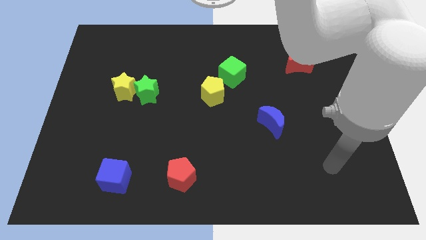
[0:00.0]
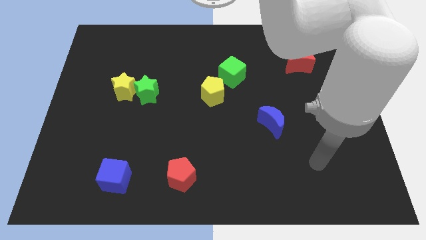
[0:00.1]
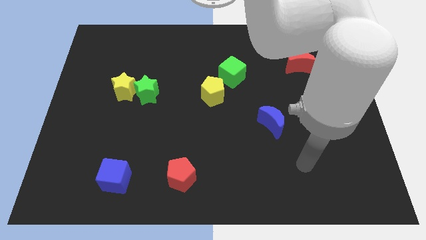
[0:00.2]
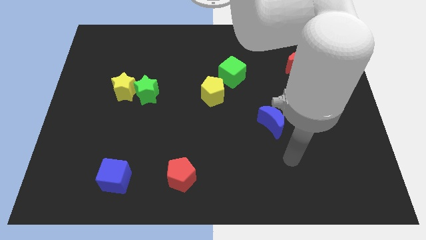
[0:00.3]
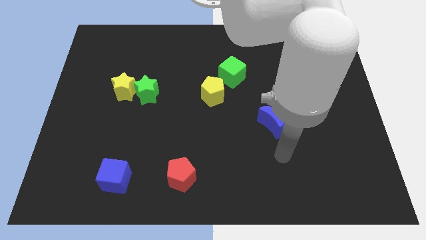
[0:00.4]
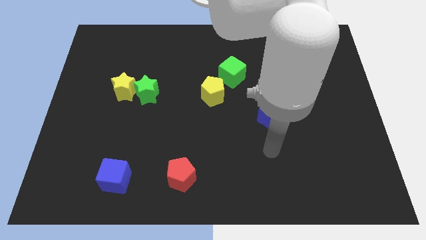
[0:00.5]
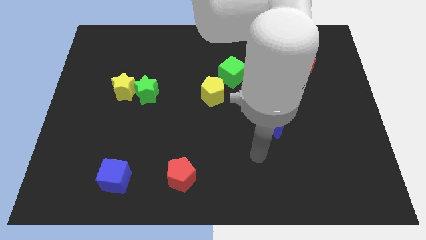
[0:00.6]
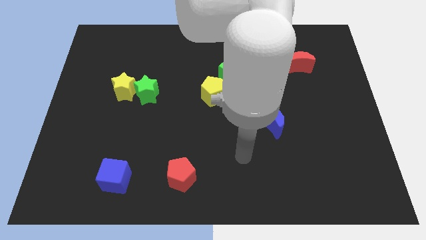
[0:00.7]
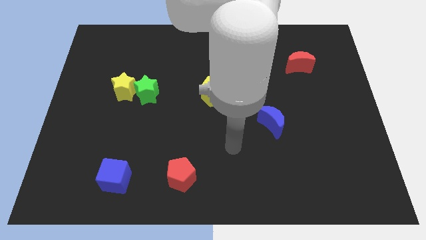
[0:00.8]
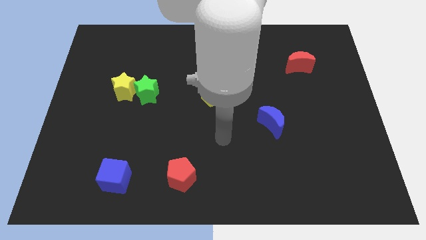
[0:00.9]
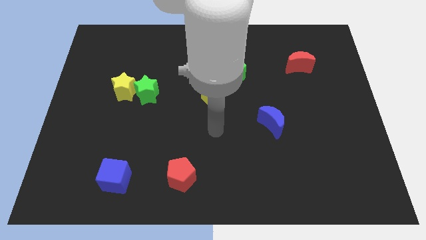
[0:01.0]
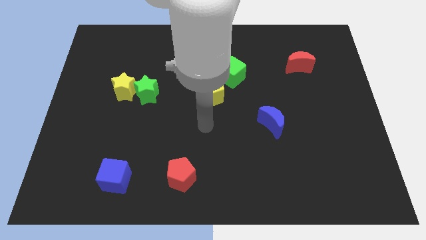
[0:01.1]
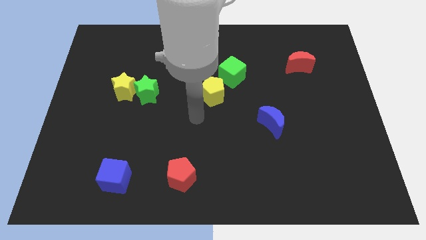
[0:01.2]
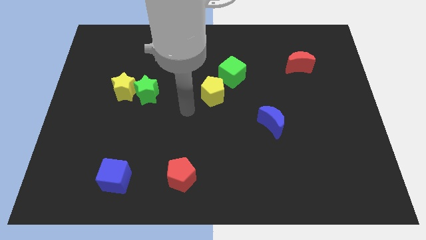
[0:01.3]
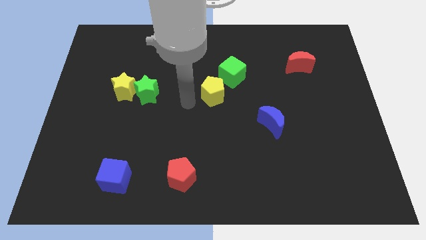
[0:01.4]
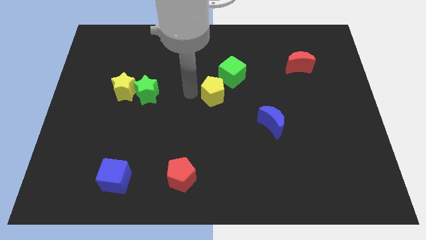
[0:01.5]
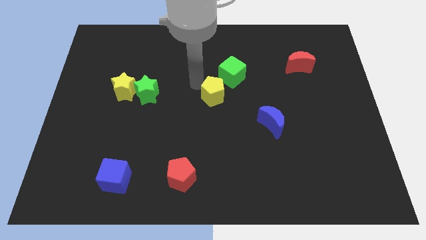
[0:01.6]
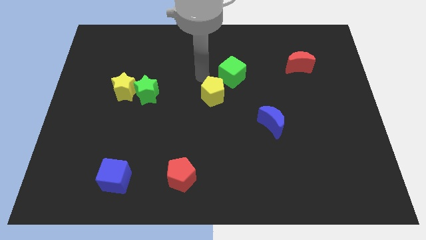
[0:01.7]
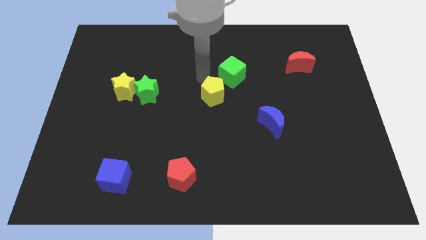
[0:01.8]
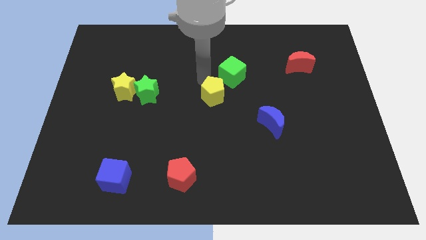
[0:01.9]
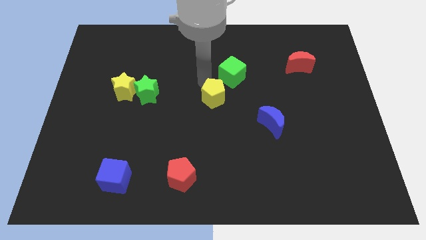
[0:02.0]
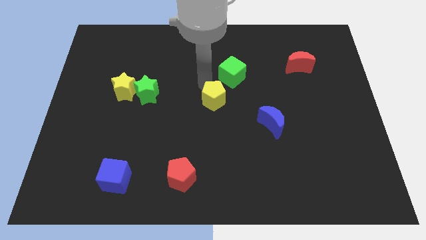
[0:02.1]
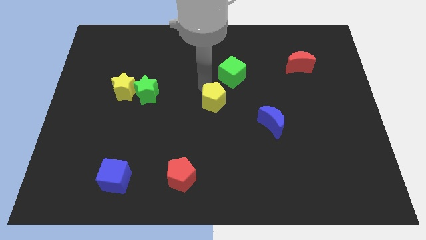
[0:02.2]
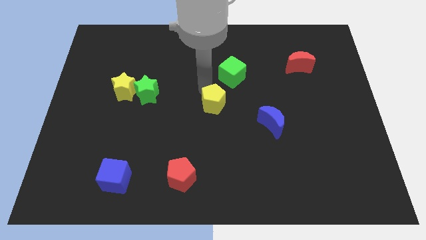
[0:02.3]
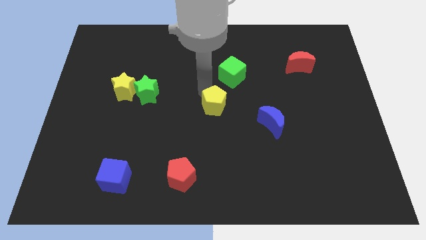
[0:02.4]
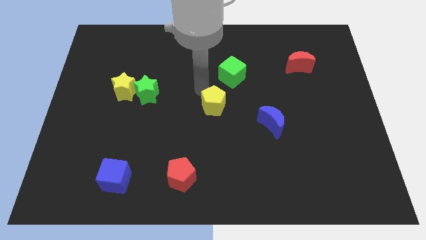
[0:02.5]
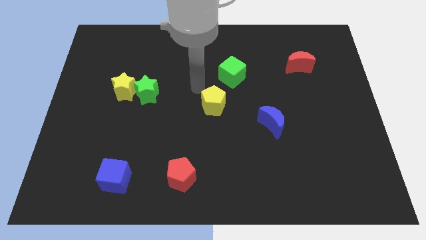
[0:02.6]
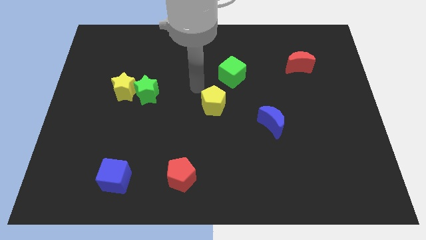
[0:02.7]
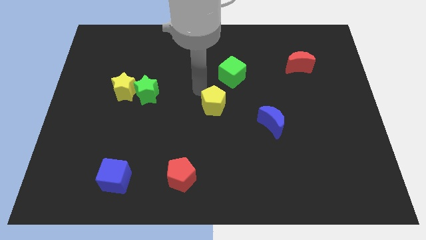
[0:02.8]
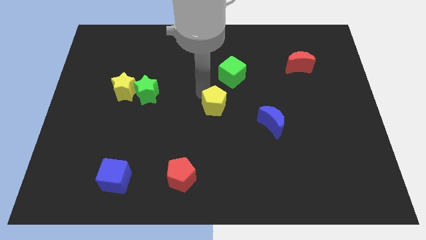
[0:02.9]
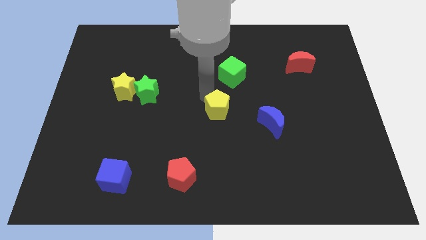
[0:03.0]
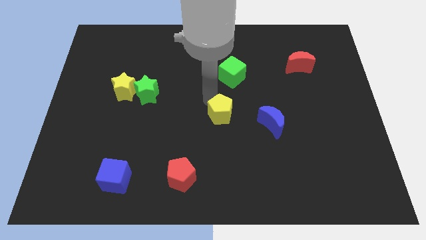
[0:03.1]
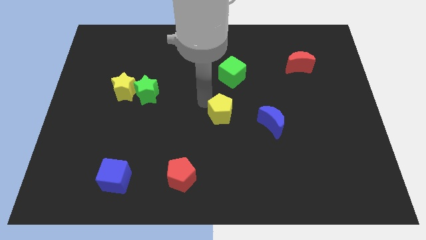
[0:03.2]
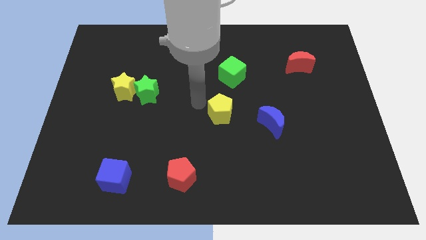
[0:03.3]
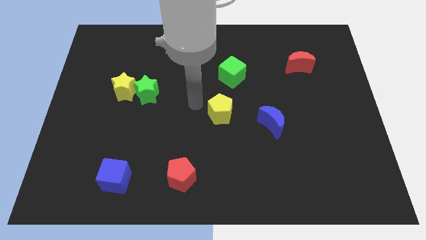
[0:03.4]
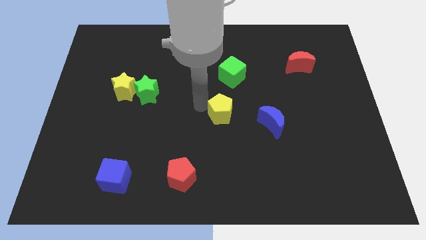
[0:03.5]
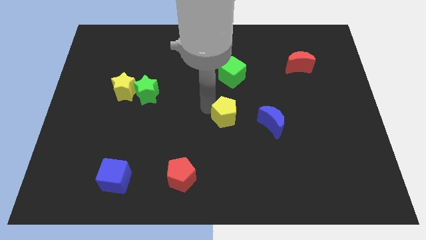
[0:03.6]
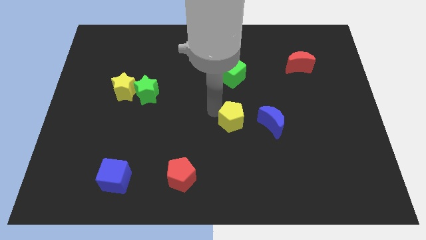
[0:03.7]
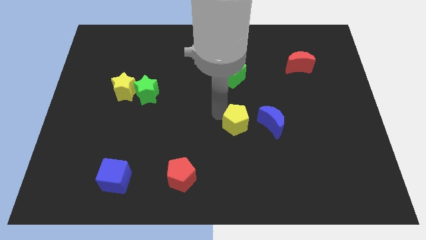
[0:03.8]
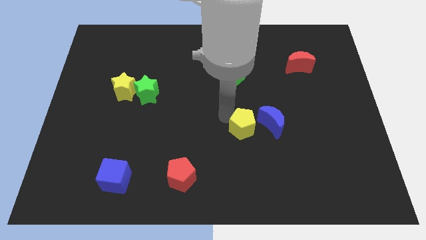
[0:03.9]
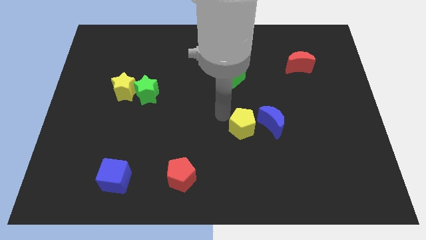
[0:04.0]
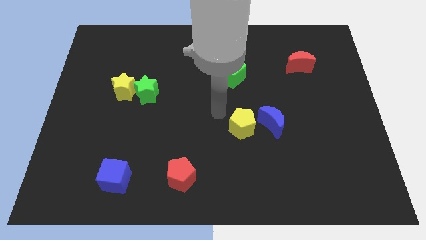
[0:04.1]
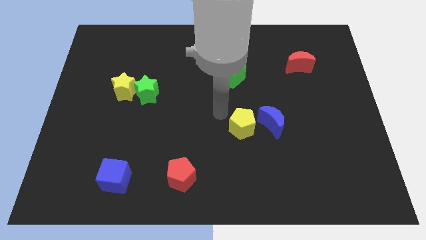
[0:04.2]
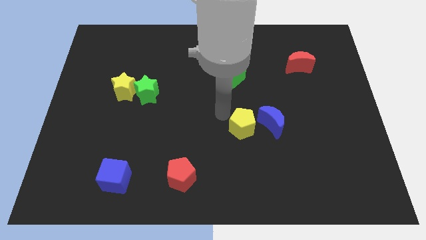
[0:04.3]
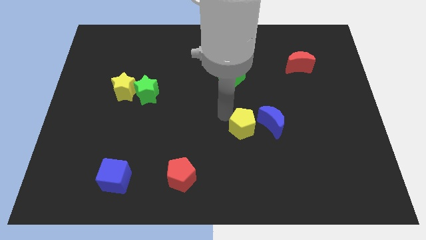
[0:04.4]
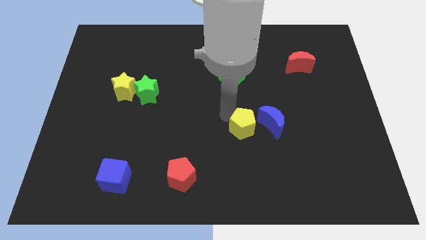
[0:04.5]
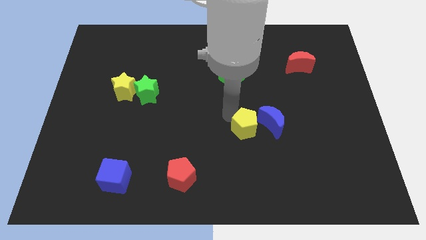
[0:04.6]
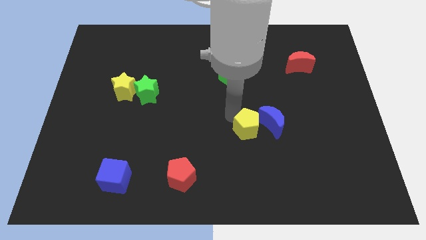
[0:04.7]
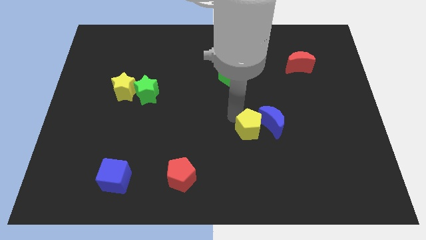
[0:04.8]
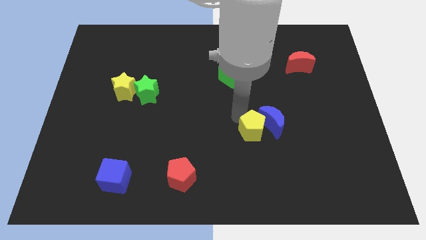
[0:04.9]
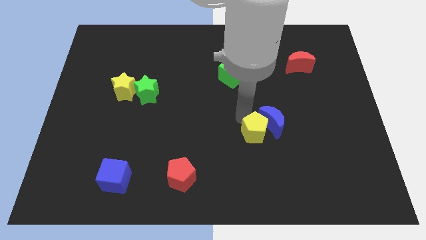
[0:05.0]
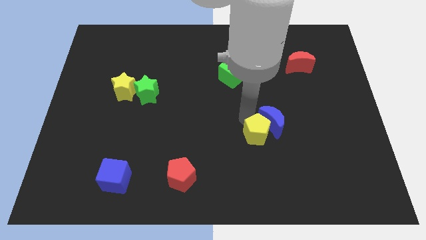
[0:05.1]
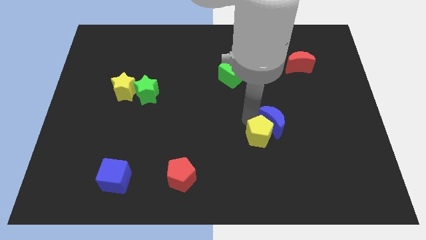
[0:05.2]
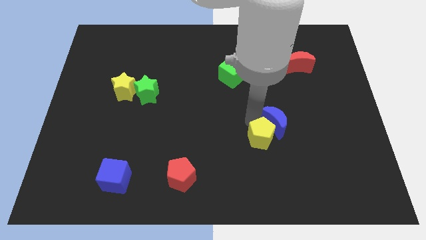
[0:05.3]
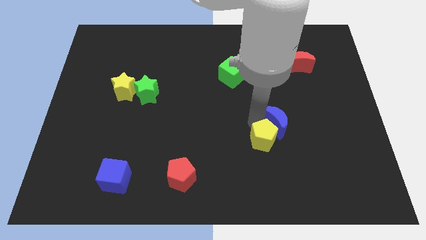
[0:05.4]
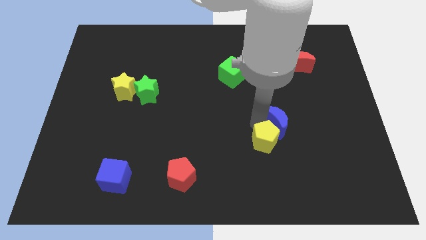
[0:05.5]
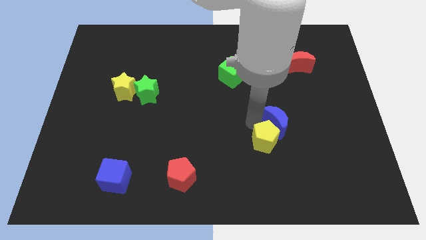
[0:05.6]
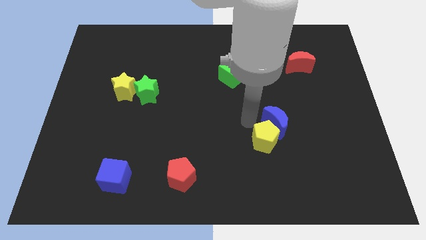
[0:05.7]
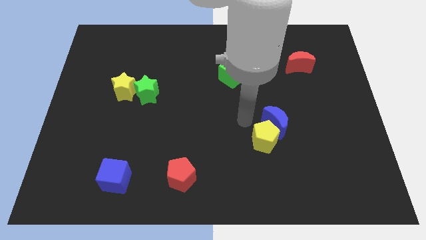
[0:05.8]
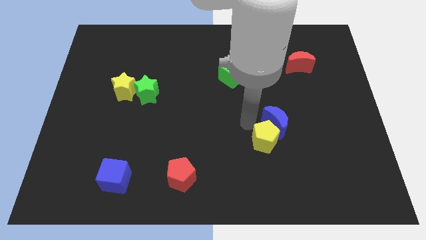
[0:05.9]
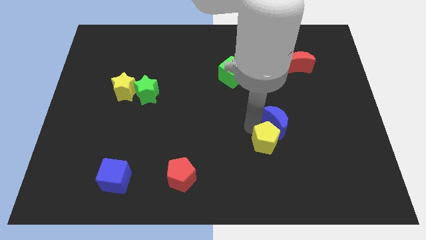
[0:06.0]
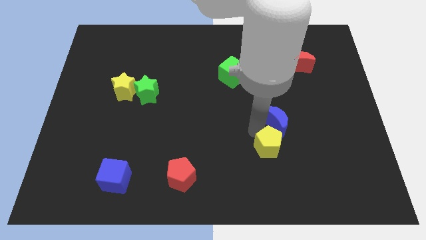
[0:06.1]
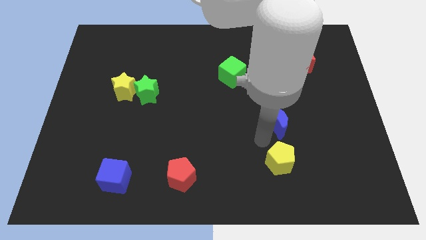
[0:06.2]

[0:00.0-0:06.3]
slide the yellow pentagon diagonally down and to the right

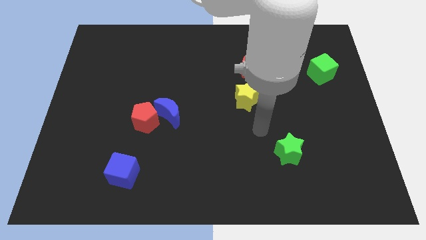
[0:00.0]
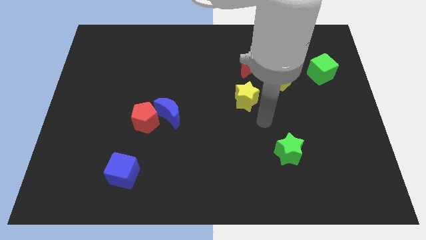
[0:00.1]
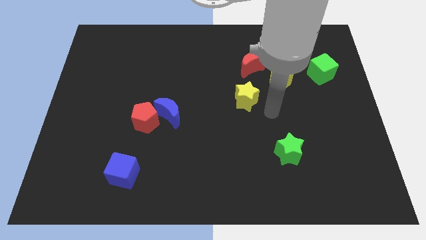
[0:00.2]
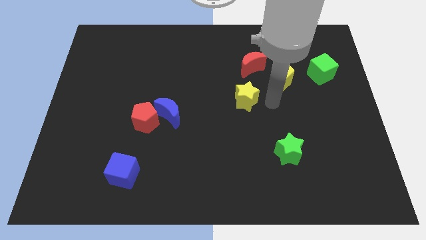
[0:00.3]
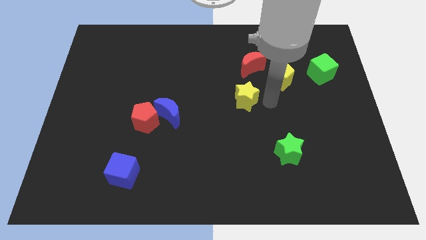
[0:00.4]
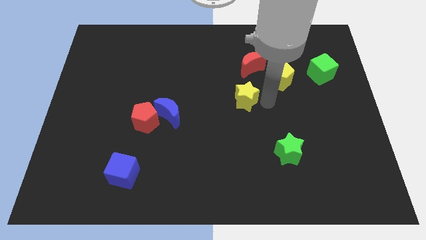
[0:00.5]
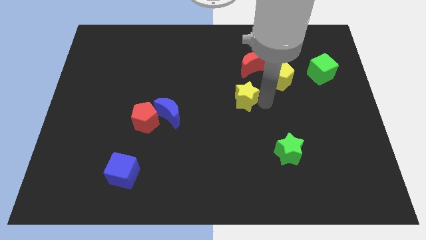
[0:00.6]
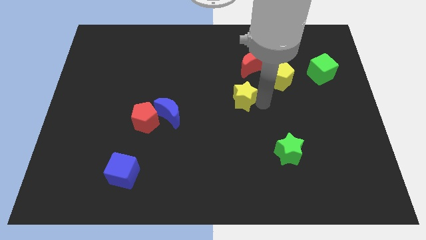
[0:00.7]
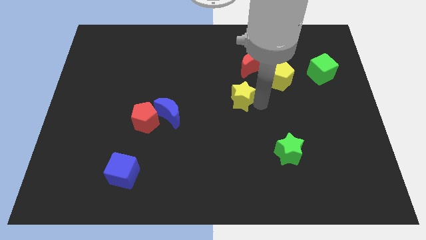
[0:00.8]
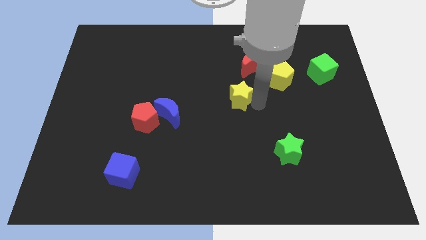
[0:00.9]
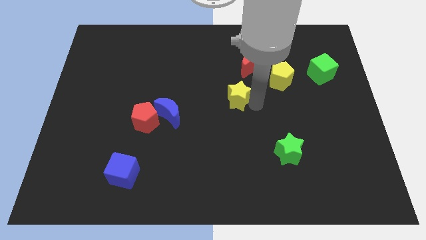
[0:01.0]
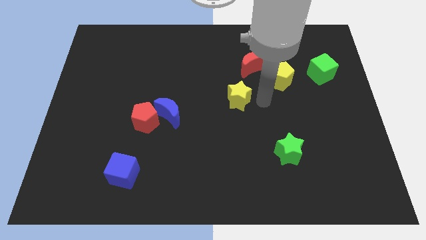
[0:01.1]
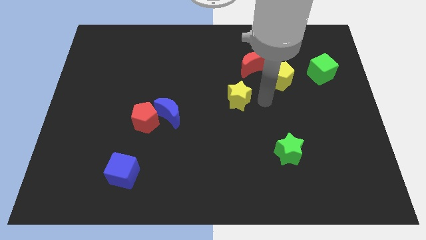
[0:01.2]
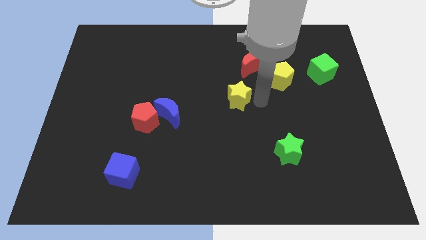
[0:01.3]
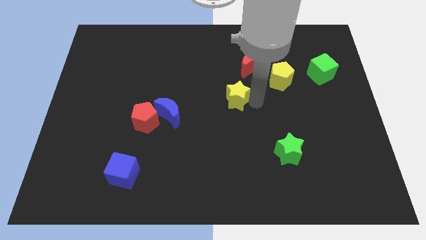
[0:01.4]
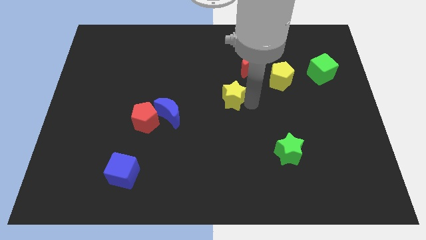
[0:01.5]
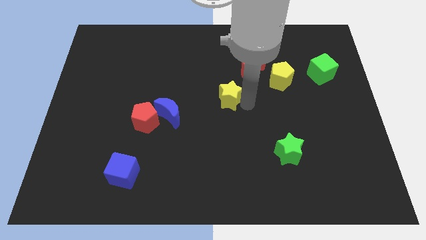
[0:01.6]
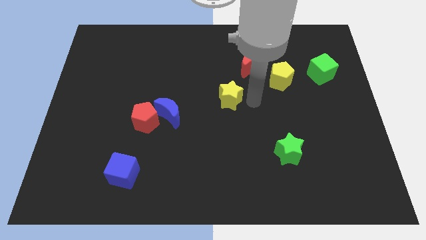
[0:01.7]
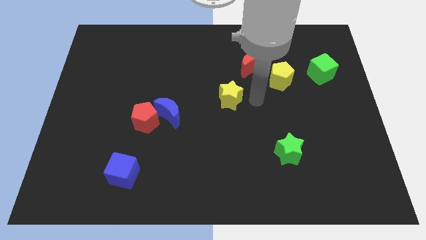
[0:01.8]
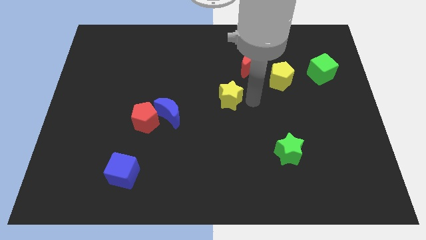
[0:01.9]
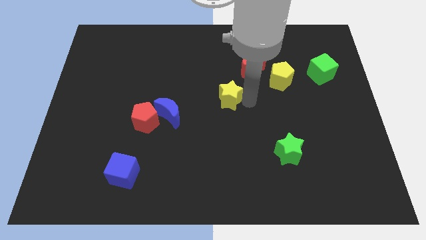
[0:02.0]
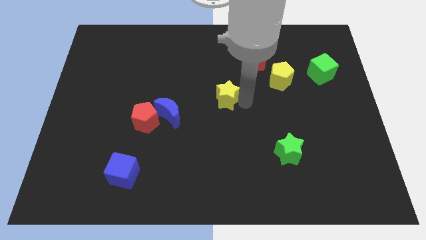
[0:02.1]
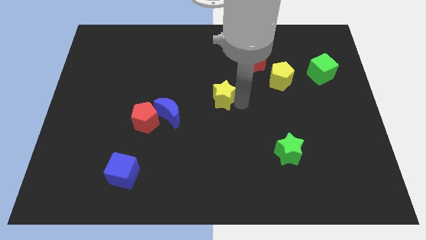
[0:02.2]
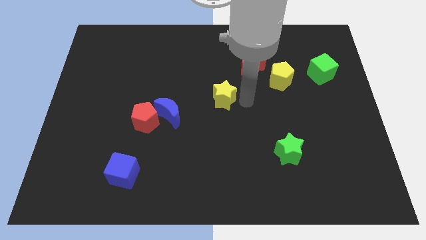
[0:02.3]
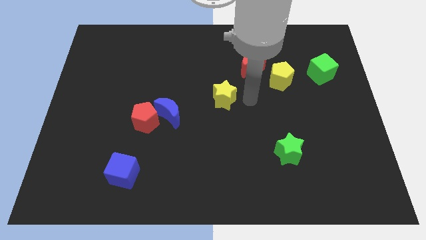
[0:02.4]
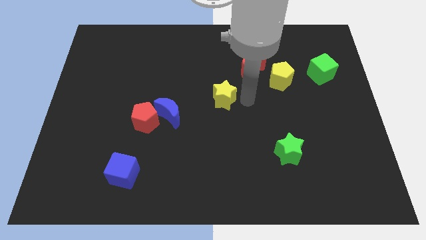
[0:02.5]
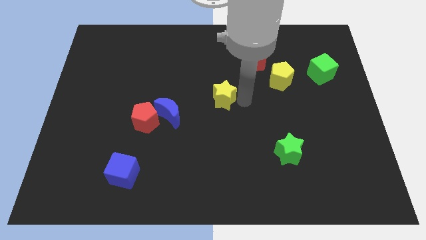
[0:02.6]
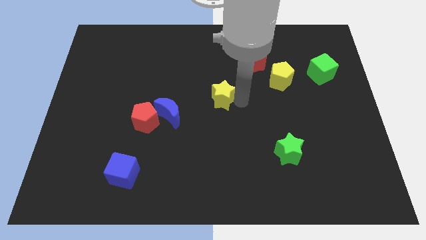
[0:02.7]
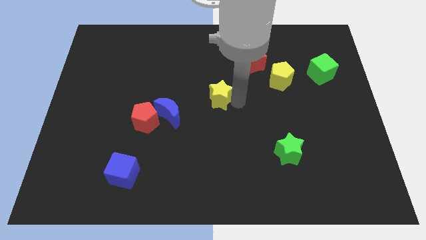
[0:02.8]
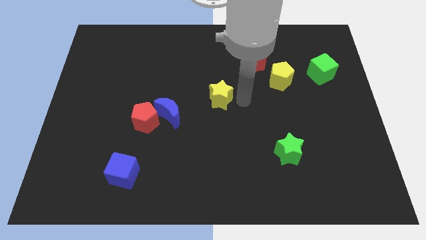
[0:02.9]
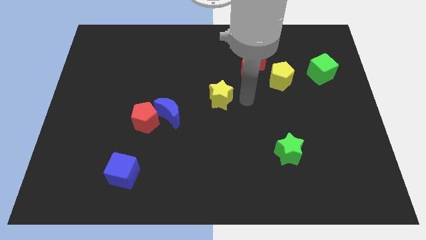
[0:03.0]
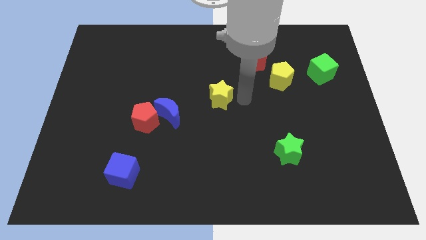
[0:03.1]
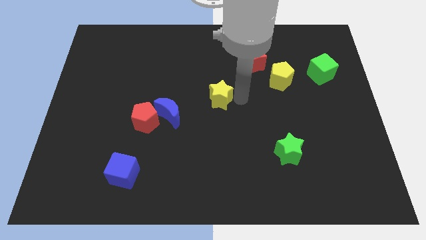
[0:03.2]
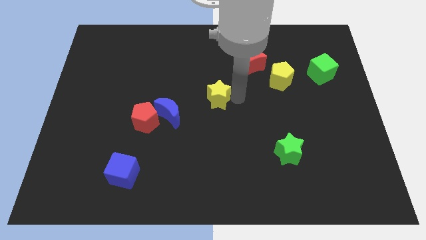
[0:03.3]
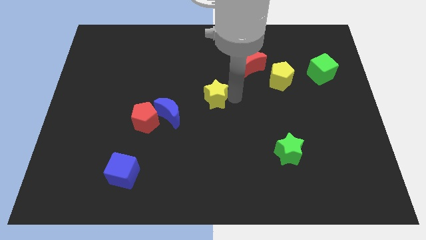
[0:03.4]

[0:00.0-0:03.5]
move the yellow star to the left a little
